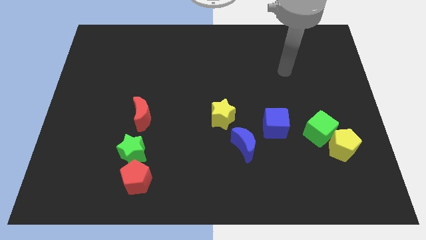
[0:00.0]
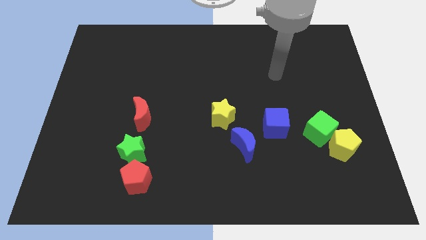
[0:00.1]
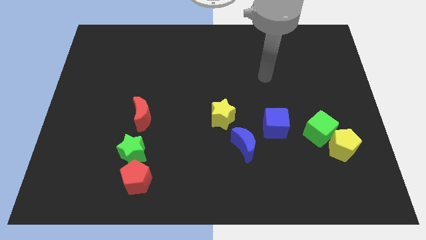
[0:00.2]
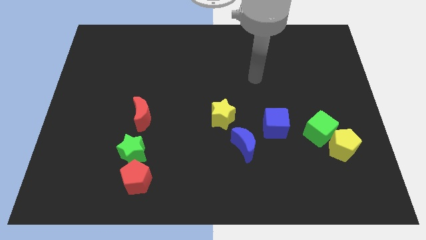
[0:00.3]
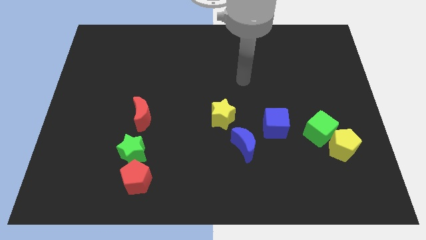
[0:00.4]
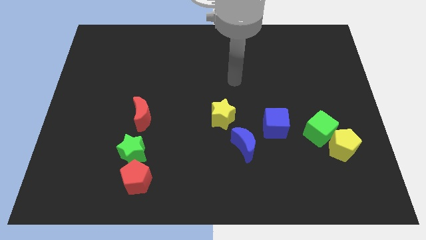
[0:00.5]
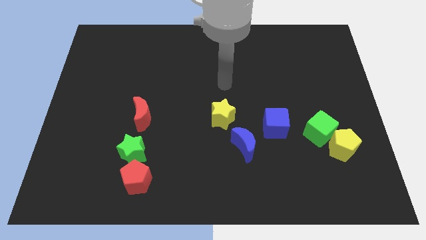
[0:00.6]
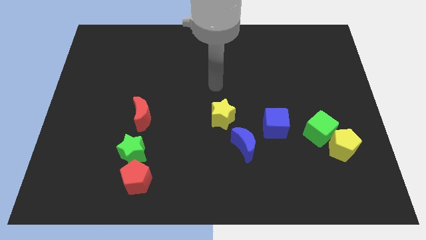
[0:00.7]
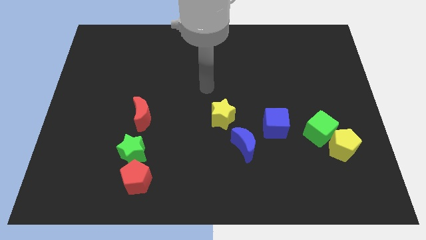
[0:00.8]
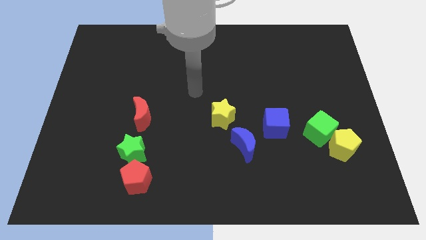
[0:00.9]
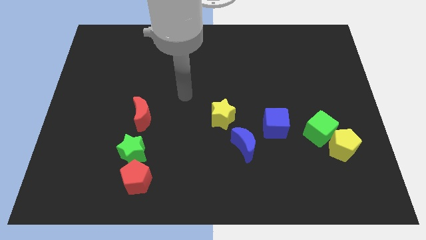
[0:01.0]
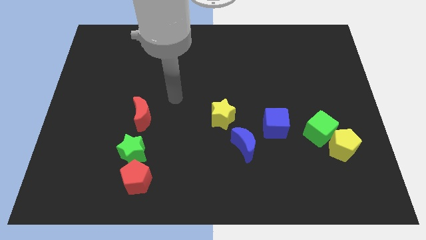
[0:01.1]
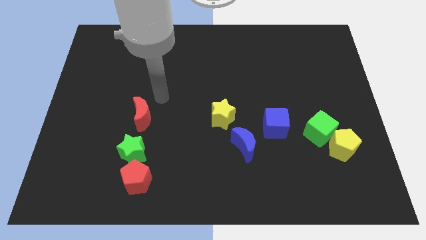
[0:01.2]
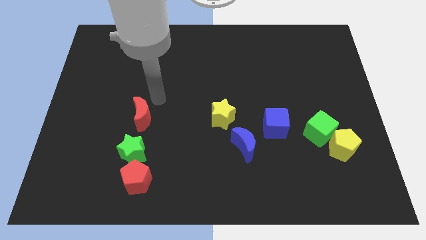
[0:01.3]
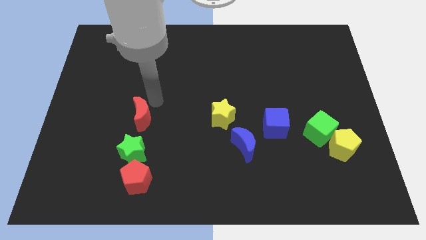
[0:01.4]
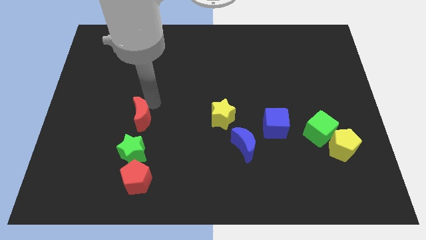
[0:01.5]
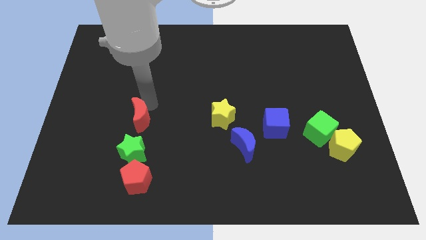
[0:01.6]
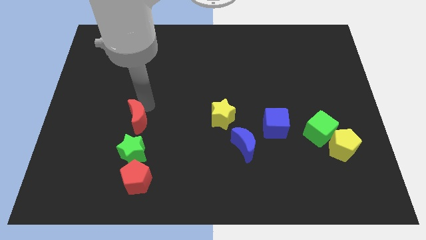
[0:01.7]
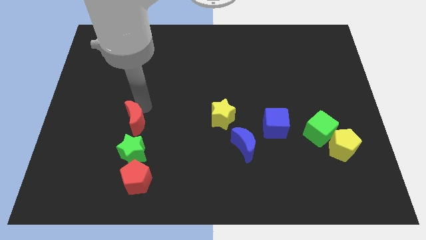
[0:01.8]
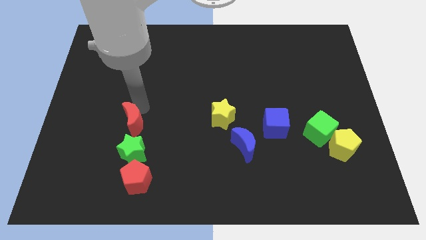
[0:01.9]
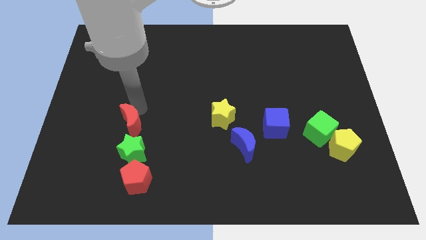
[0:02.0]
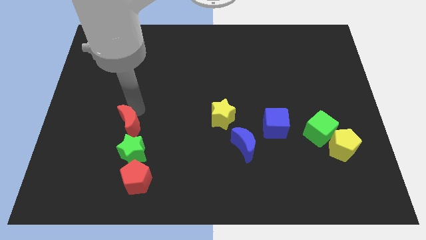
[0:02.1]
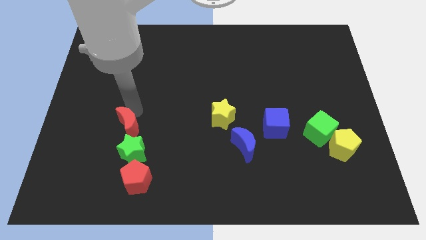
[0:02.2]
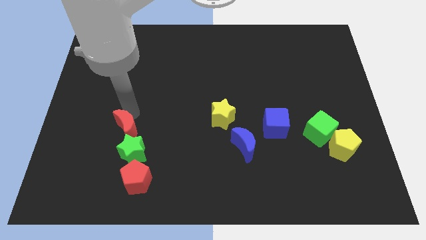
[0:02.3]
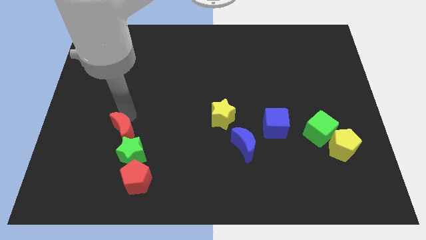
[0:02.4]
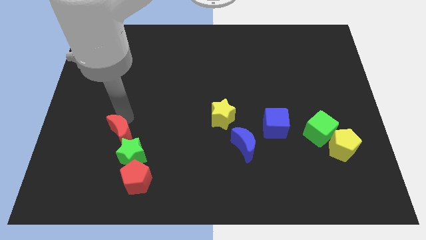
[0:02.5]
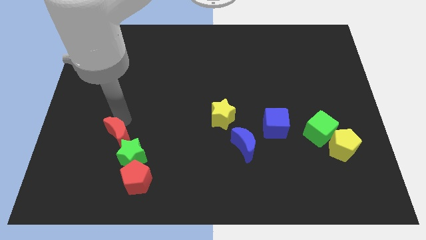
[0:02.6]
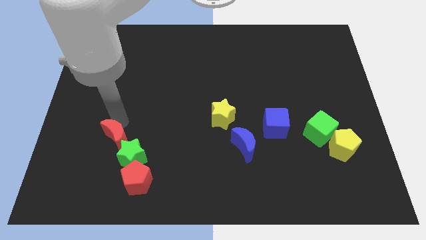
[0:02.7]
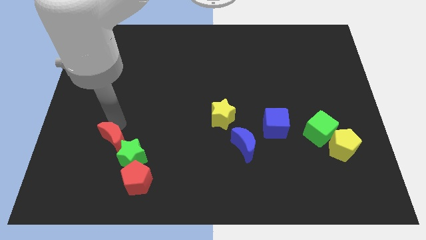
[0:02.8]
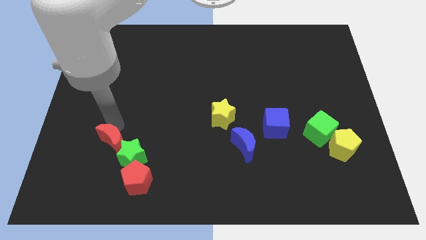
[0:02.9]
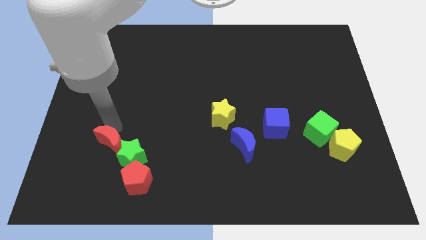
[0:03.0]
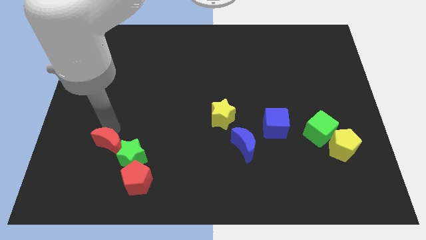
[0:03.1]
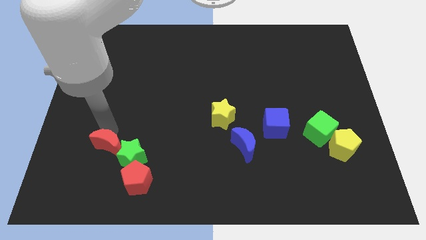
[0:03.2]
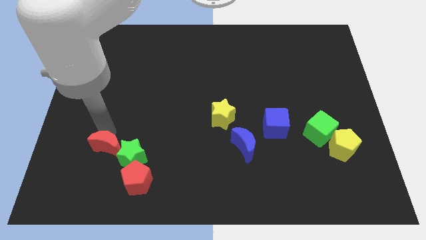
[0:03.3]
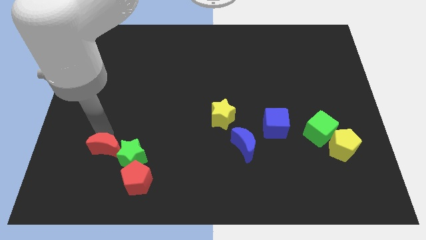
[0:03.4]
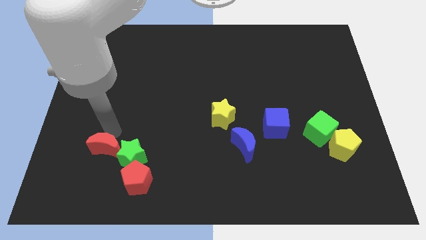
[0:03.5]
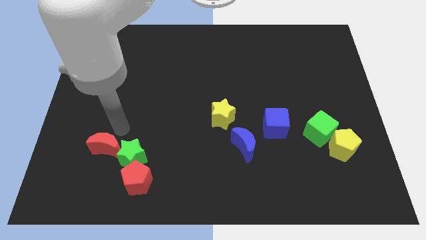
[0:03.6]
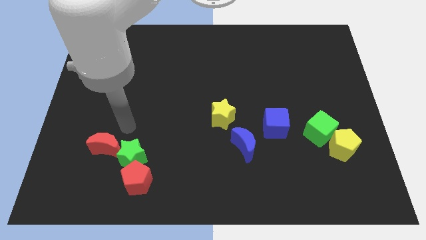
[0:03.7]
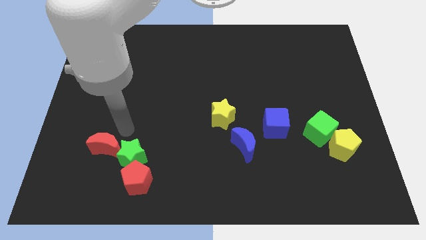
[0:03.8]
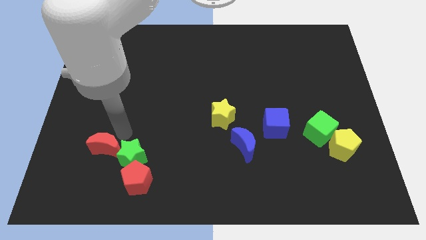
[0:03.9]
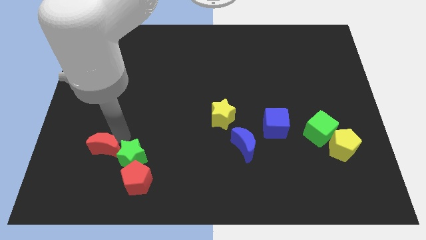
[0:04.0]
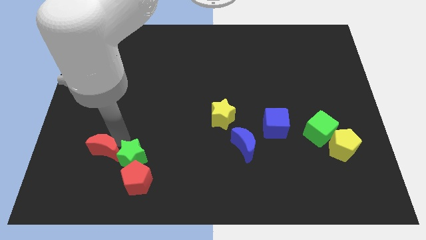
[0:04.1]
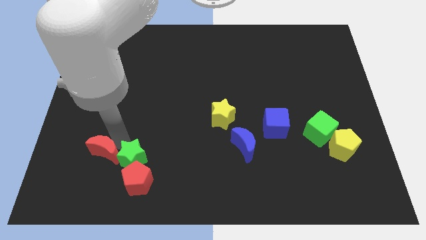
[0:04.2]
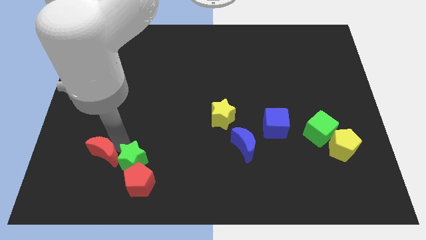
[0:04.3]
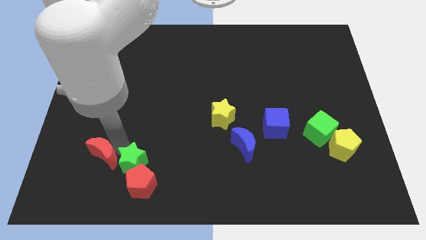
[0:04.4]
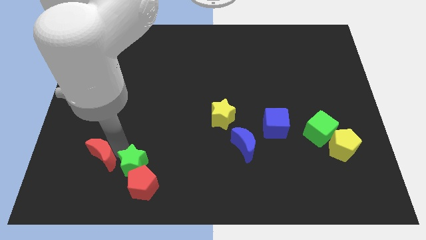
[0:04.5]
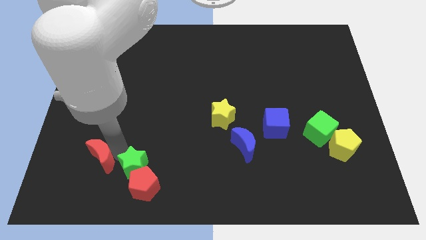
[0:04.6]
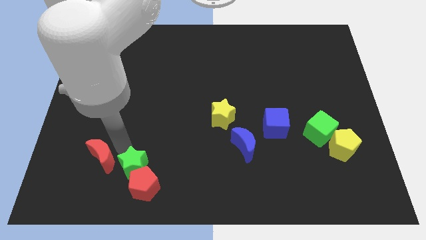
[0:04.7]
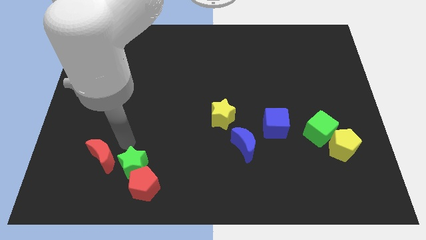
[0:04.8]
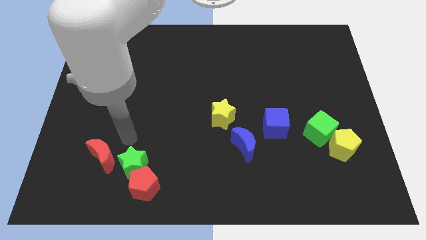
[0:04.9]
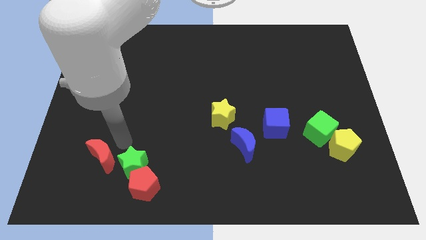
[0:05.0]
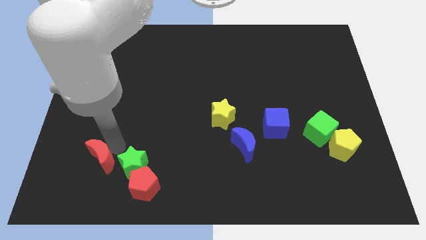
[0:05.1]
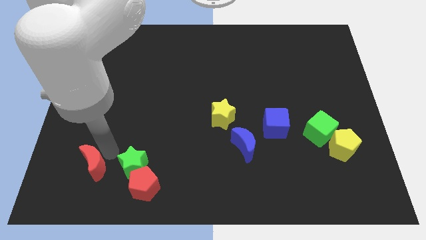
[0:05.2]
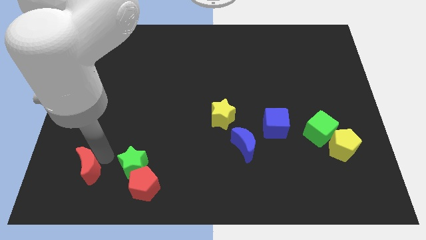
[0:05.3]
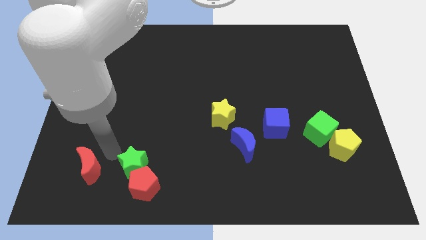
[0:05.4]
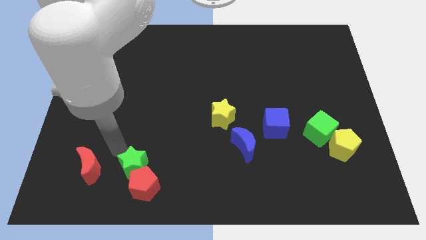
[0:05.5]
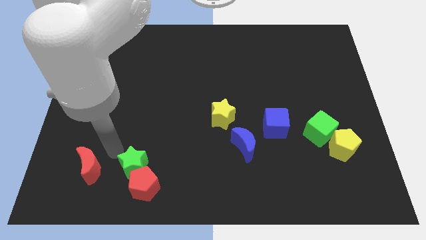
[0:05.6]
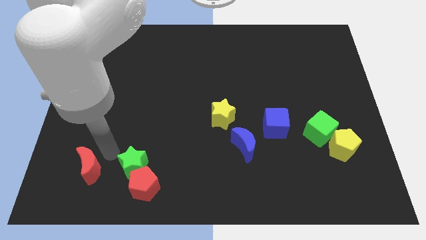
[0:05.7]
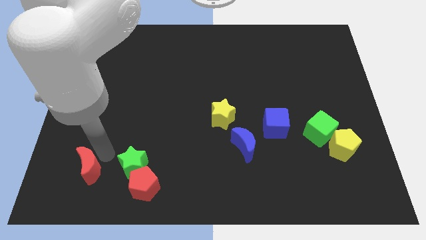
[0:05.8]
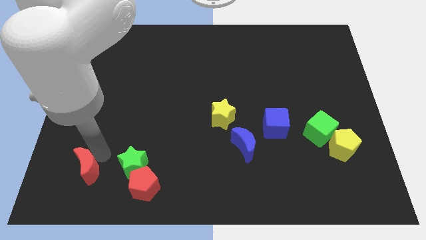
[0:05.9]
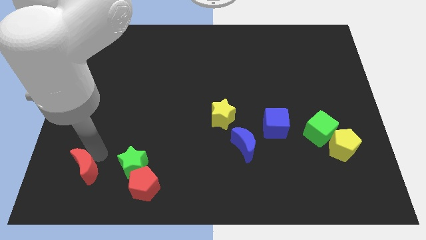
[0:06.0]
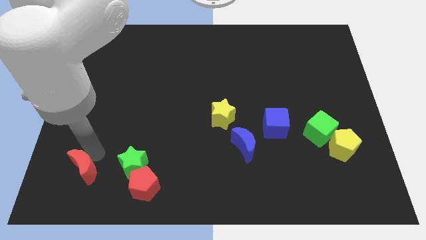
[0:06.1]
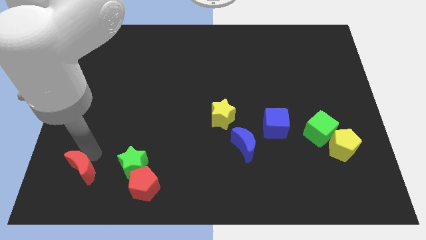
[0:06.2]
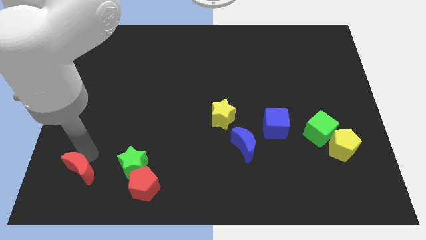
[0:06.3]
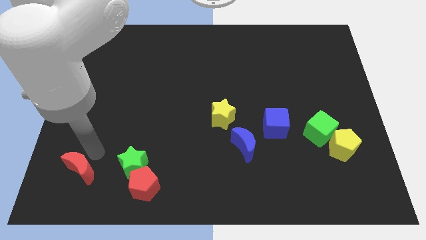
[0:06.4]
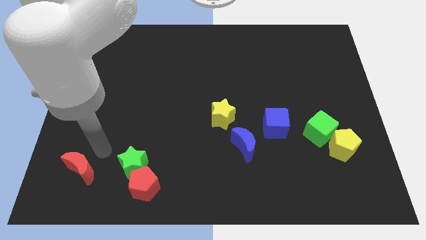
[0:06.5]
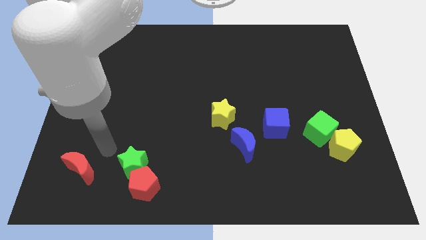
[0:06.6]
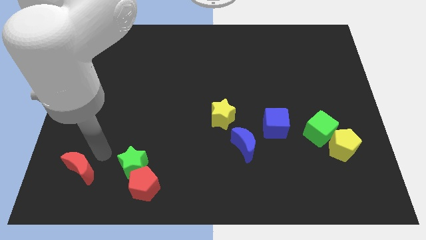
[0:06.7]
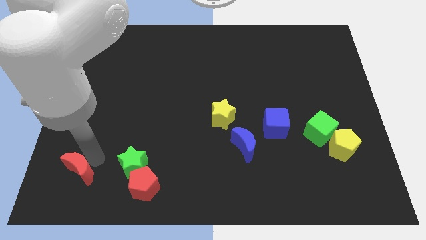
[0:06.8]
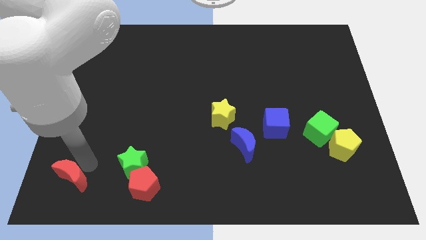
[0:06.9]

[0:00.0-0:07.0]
put the red moon to the lower left corner
